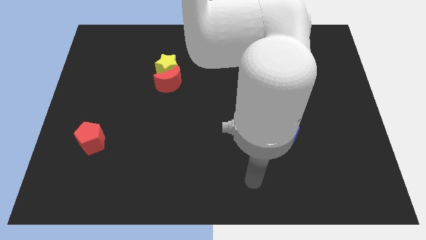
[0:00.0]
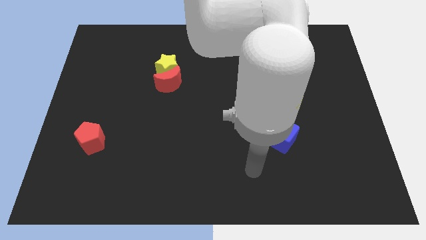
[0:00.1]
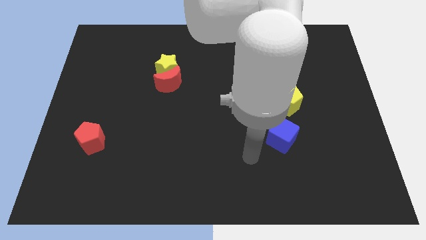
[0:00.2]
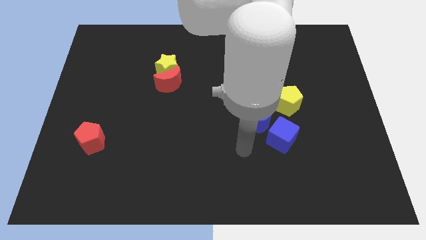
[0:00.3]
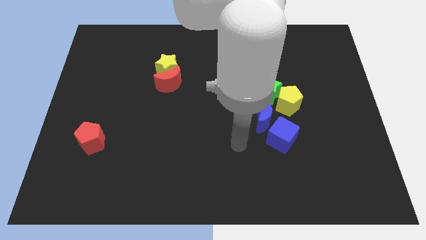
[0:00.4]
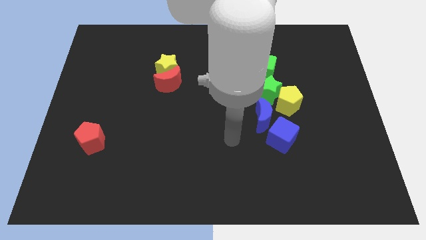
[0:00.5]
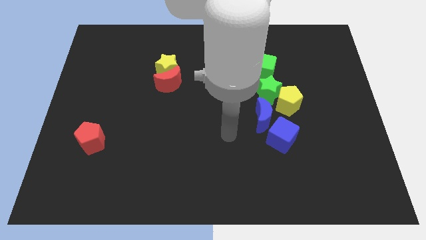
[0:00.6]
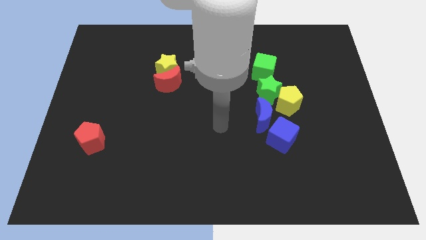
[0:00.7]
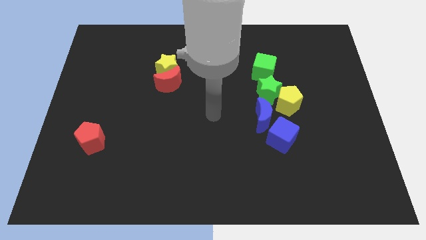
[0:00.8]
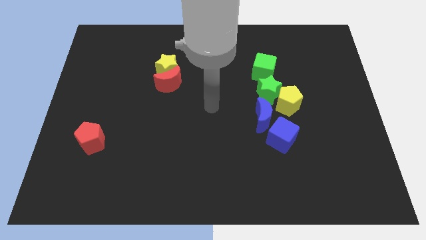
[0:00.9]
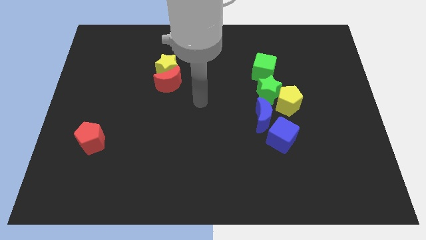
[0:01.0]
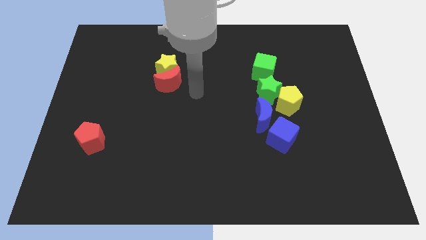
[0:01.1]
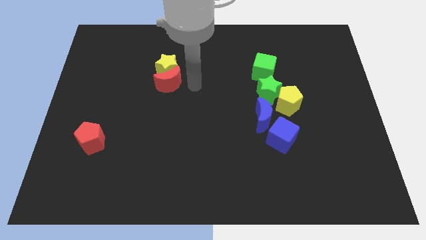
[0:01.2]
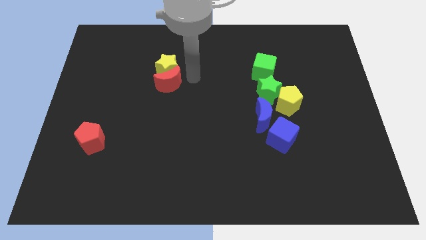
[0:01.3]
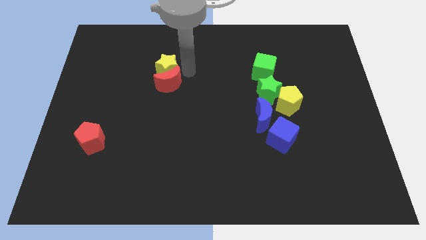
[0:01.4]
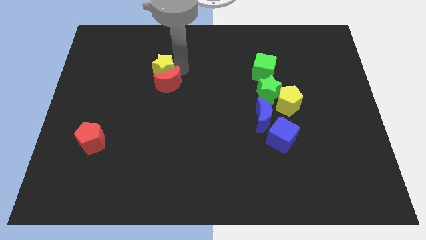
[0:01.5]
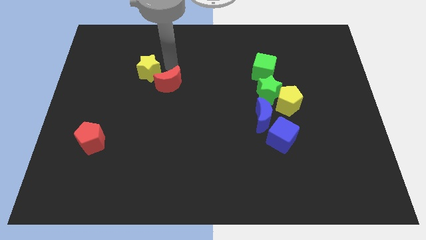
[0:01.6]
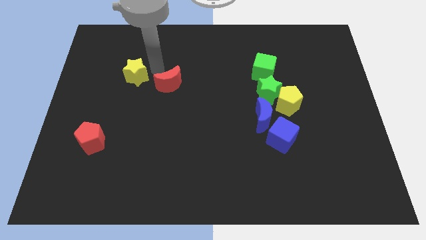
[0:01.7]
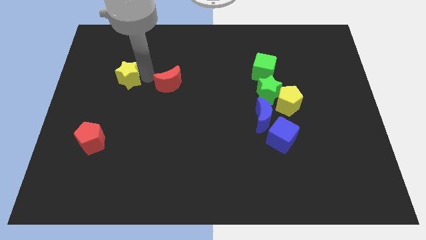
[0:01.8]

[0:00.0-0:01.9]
move the red moon away from the yellow star

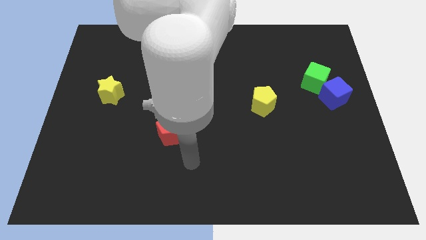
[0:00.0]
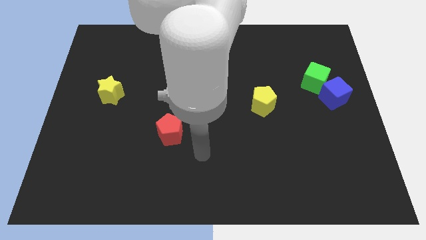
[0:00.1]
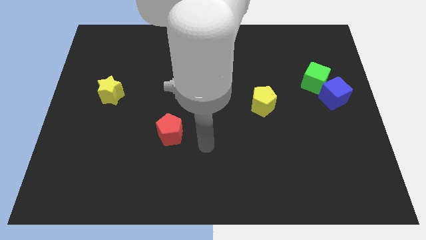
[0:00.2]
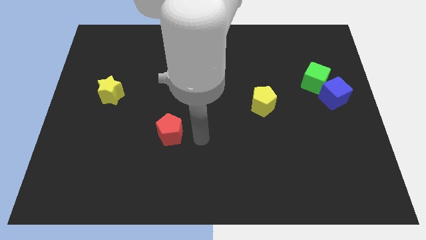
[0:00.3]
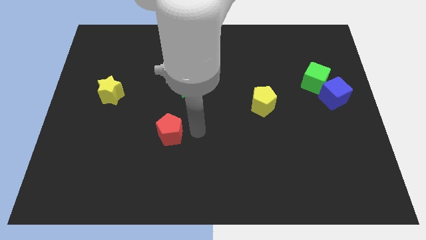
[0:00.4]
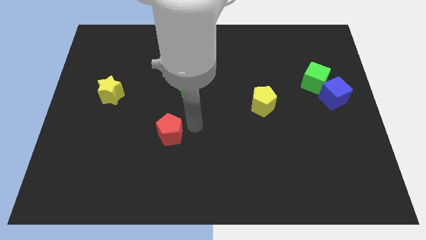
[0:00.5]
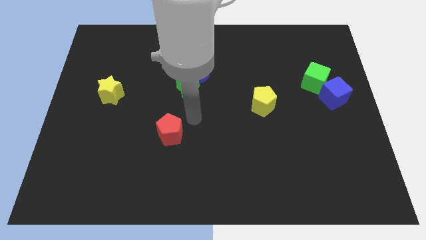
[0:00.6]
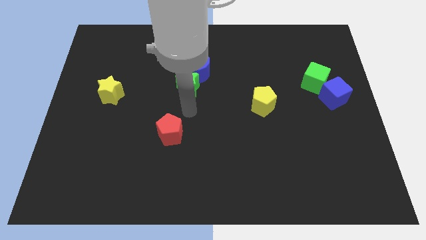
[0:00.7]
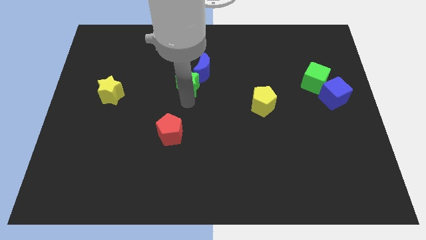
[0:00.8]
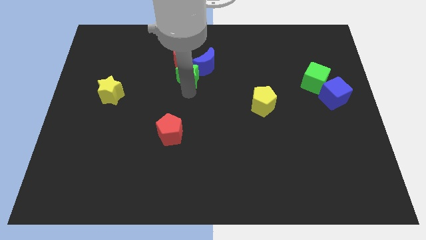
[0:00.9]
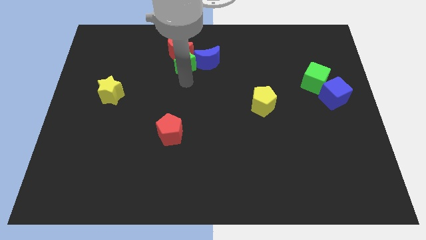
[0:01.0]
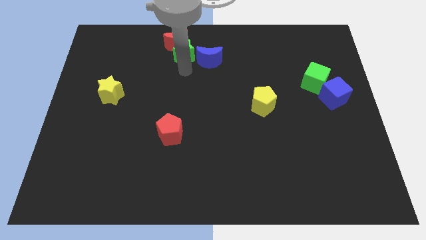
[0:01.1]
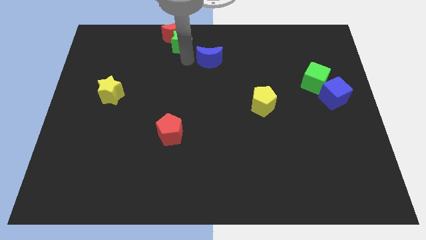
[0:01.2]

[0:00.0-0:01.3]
separate the blue moon from the red moon and green star

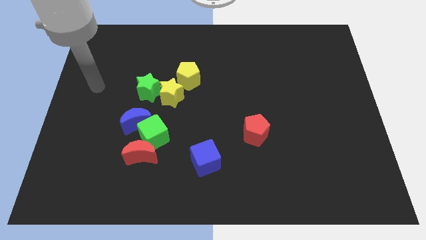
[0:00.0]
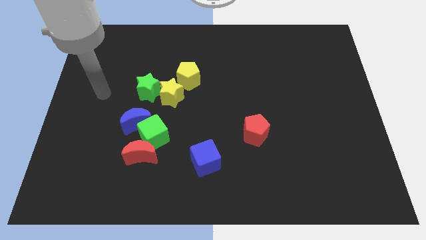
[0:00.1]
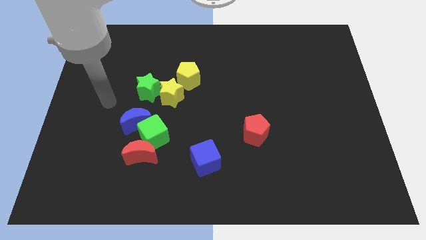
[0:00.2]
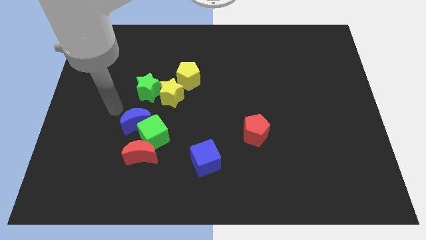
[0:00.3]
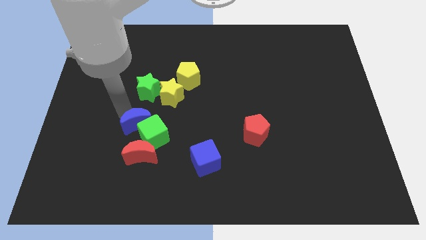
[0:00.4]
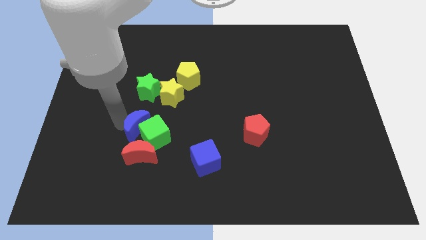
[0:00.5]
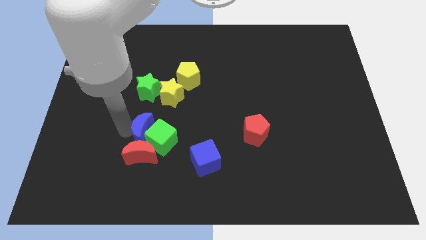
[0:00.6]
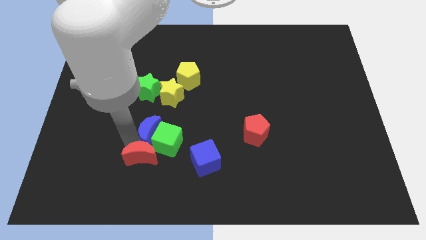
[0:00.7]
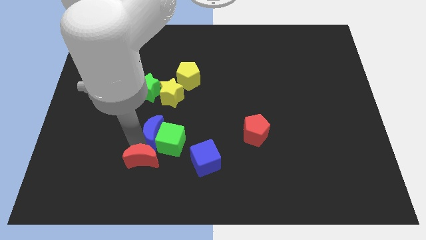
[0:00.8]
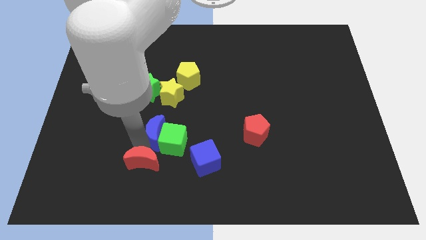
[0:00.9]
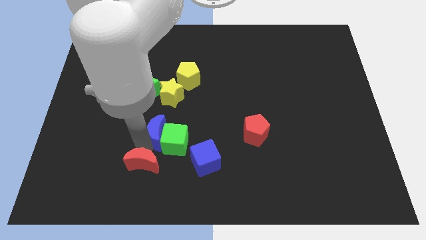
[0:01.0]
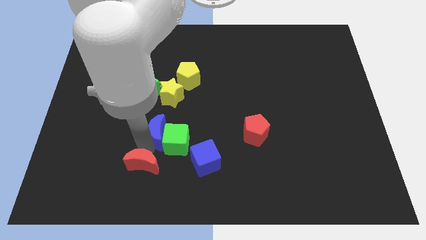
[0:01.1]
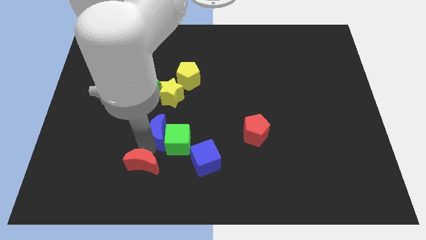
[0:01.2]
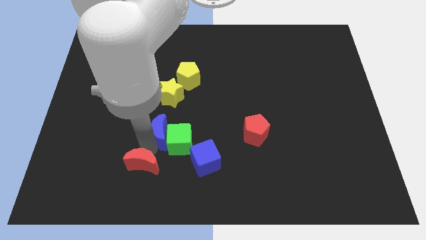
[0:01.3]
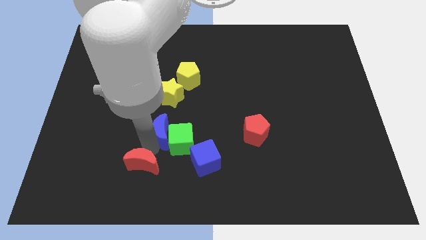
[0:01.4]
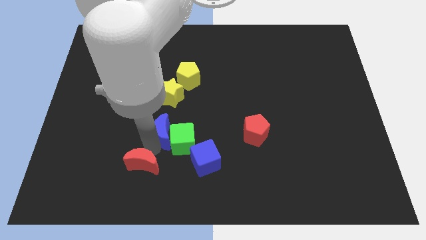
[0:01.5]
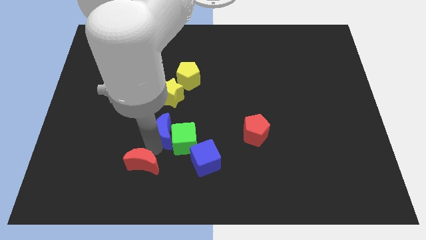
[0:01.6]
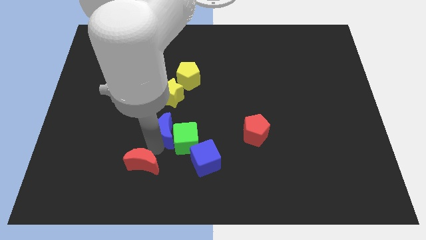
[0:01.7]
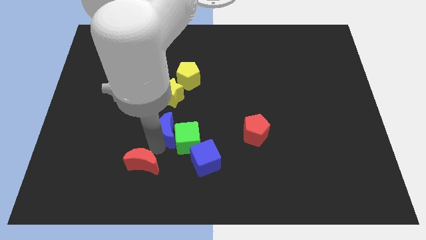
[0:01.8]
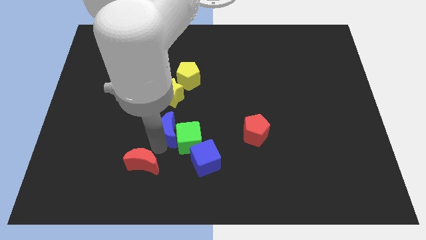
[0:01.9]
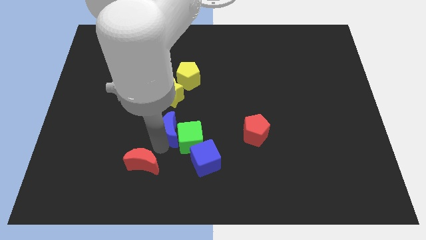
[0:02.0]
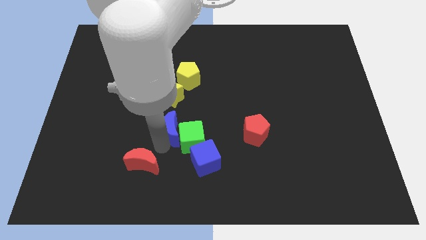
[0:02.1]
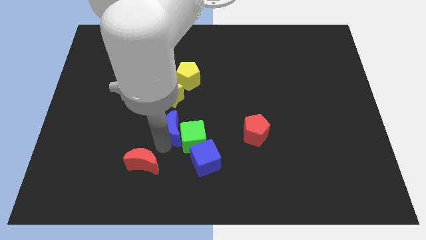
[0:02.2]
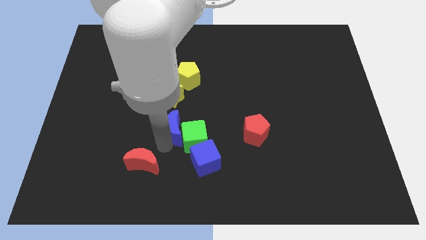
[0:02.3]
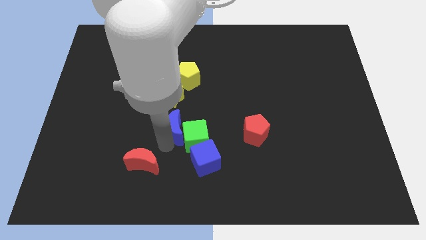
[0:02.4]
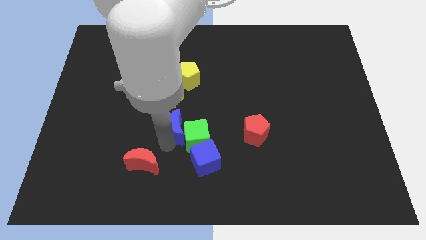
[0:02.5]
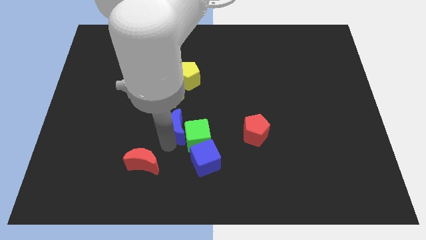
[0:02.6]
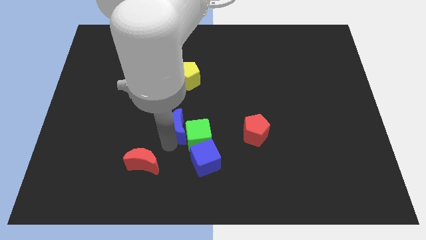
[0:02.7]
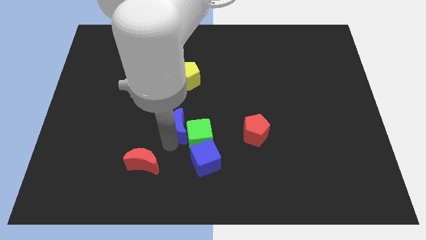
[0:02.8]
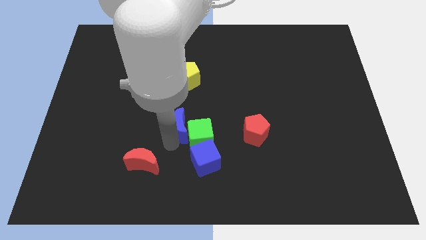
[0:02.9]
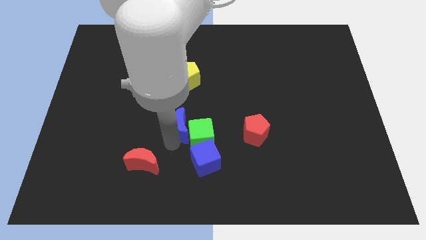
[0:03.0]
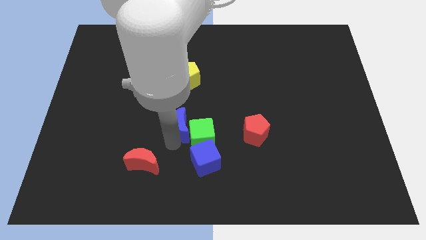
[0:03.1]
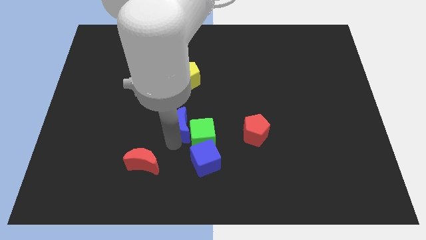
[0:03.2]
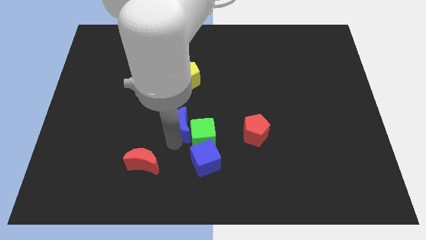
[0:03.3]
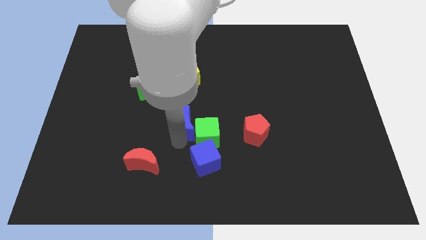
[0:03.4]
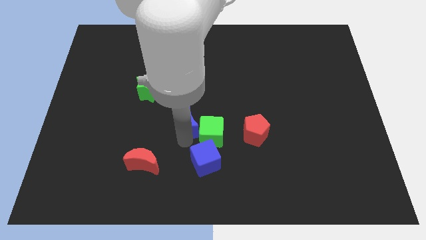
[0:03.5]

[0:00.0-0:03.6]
move the green cube away from the red moon and blue moon

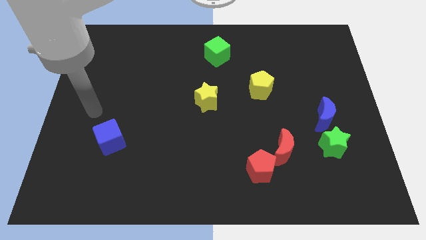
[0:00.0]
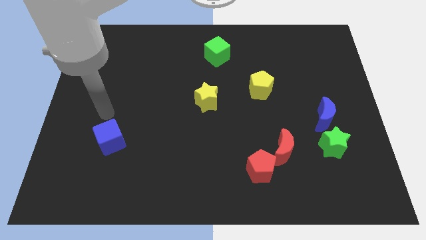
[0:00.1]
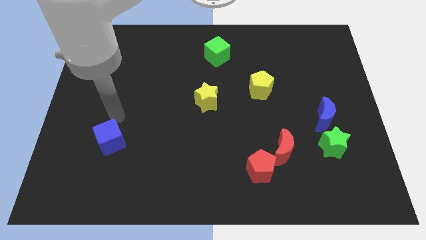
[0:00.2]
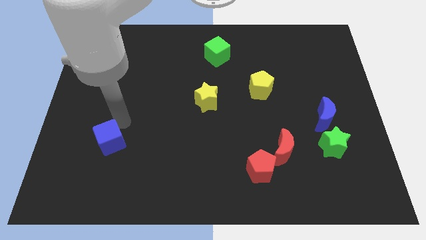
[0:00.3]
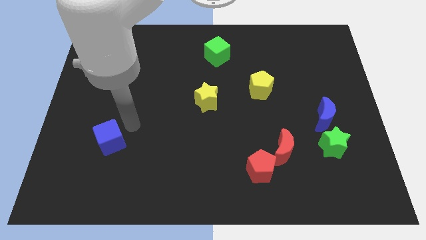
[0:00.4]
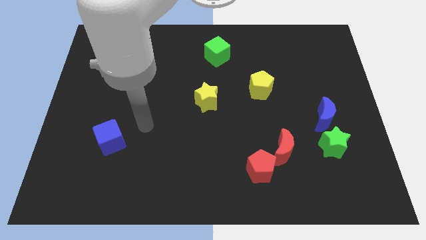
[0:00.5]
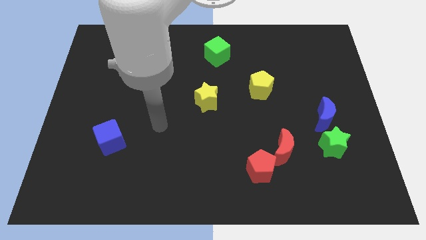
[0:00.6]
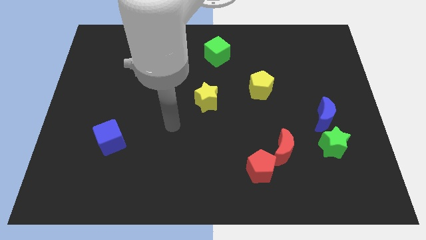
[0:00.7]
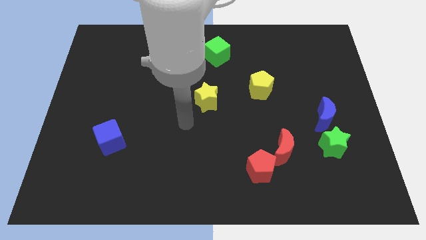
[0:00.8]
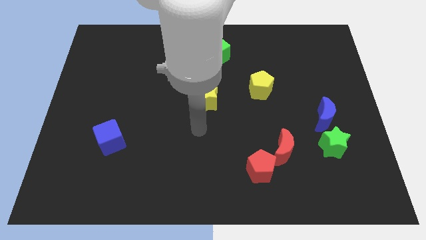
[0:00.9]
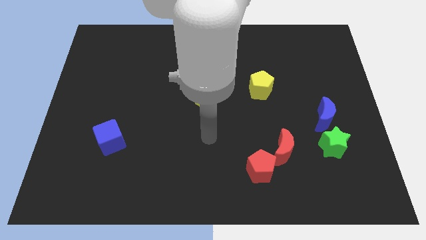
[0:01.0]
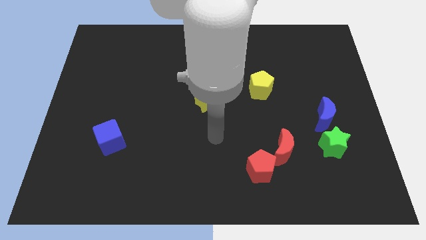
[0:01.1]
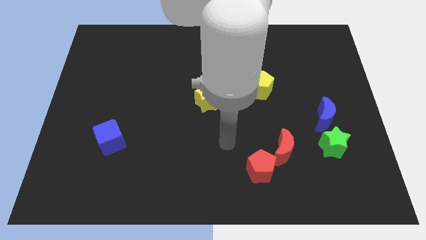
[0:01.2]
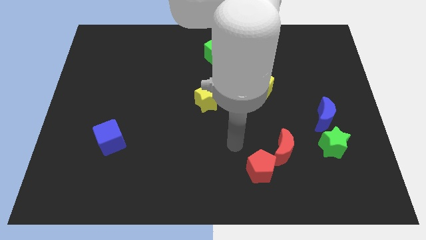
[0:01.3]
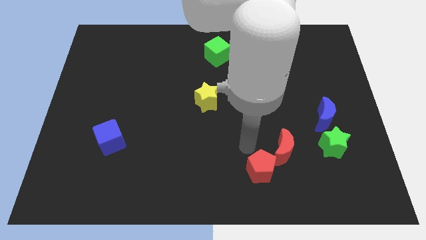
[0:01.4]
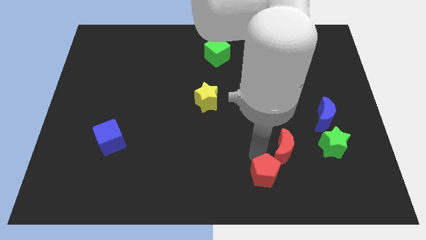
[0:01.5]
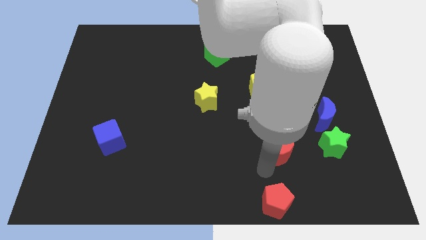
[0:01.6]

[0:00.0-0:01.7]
separate the red moon from the red pentagon

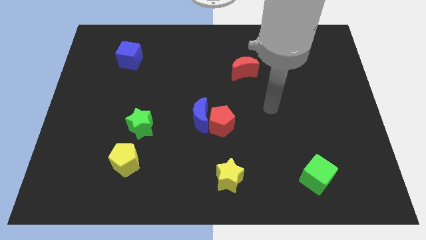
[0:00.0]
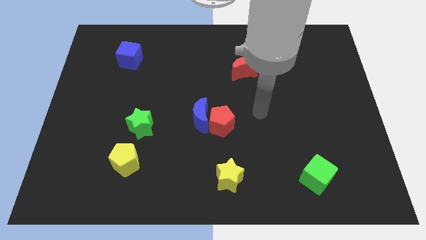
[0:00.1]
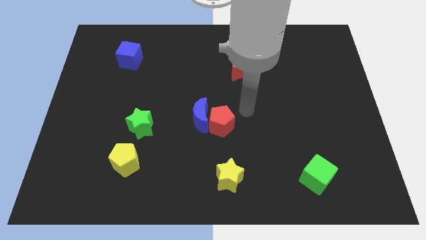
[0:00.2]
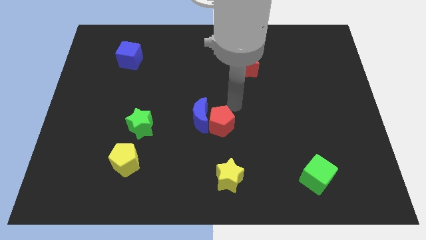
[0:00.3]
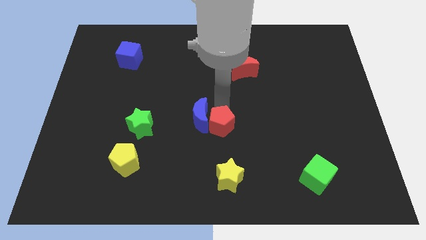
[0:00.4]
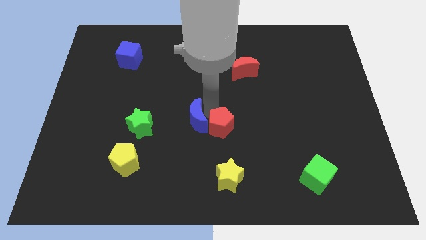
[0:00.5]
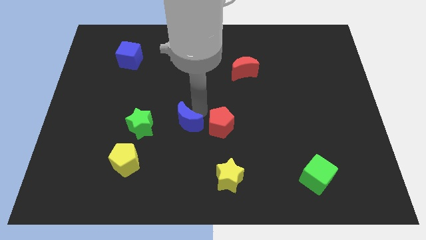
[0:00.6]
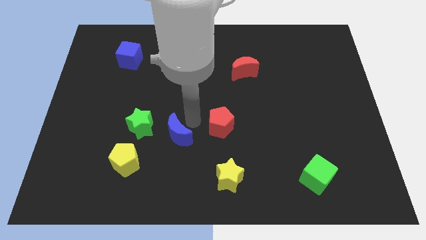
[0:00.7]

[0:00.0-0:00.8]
separate the red pentagon from the blue moon
